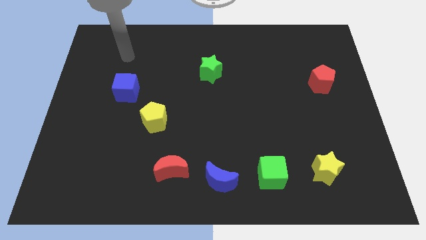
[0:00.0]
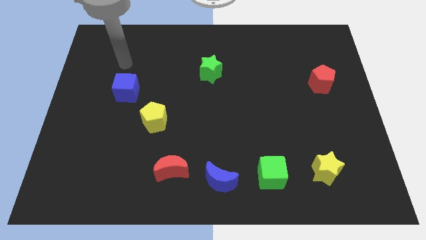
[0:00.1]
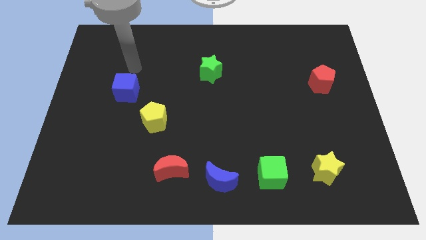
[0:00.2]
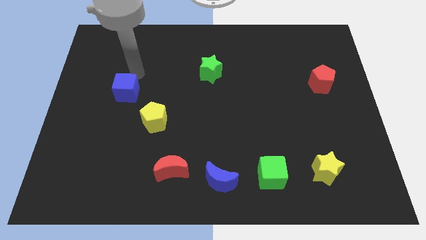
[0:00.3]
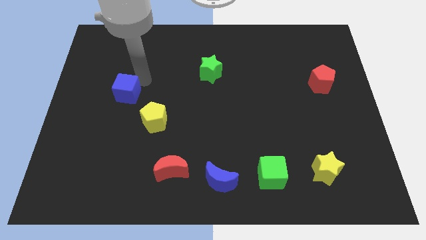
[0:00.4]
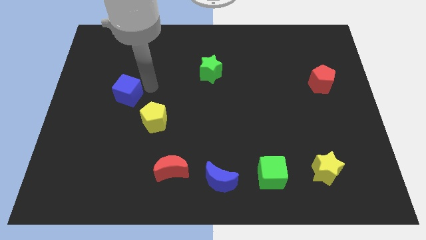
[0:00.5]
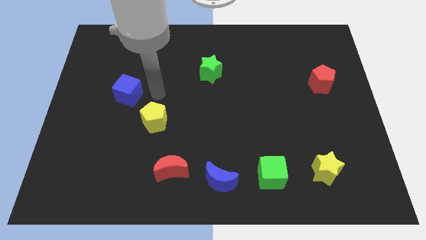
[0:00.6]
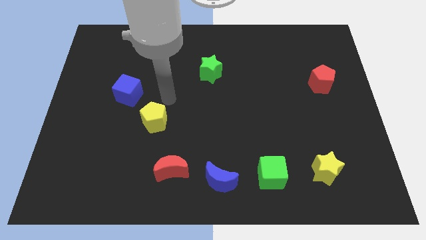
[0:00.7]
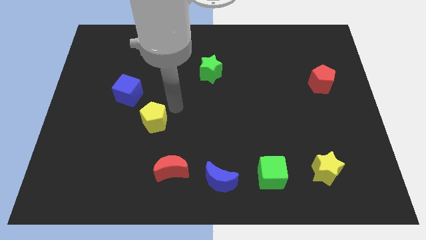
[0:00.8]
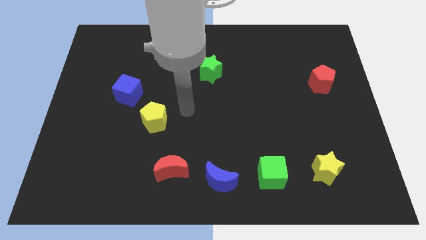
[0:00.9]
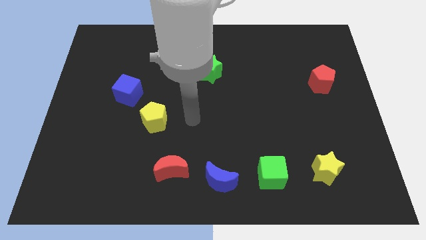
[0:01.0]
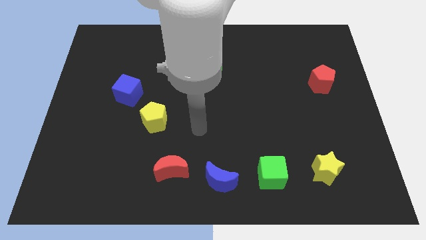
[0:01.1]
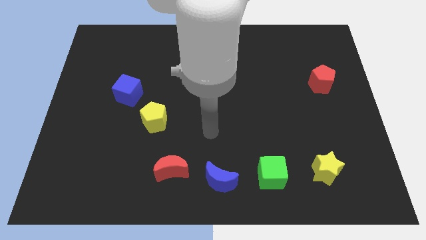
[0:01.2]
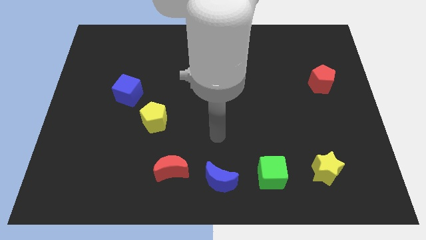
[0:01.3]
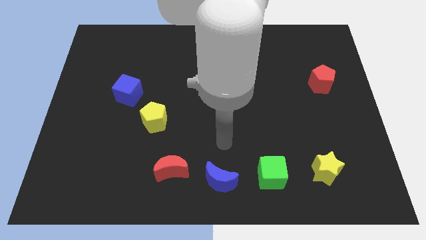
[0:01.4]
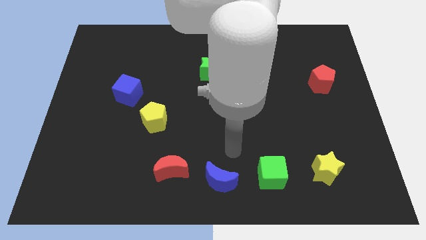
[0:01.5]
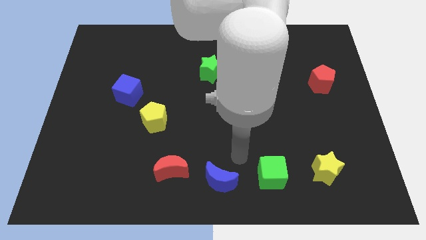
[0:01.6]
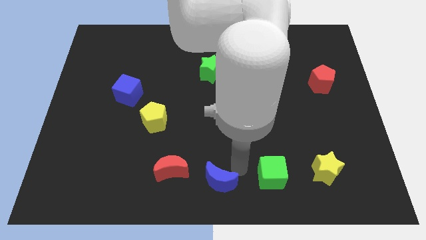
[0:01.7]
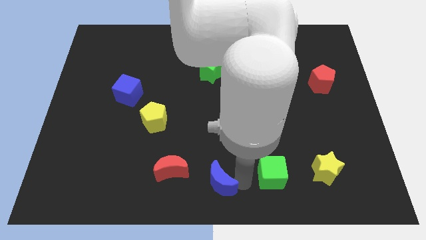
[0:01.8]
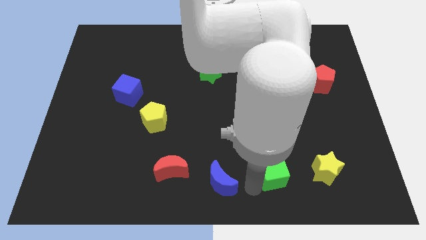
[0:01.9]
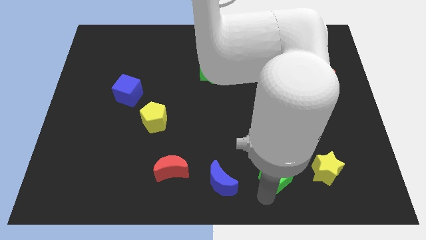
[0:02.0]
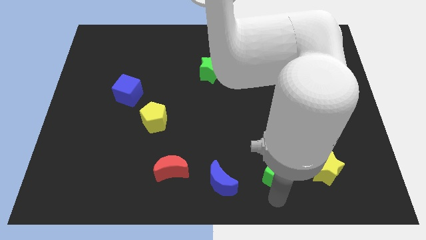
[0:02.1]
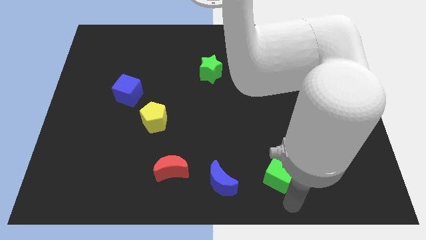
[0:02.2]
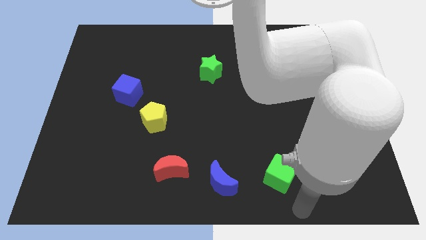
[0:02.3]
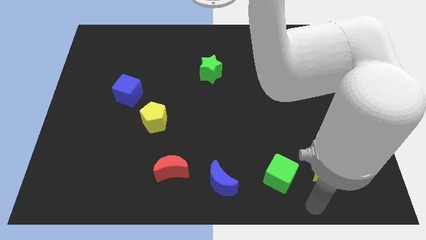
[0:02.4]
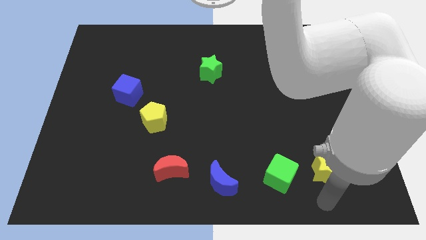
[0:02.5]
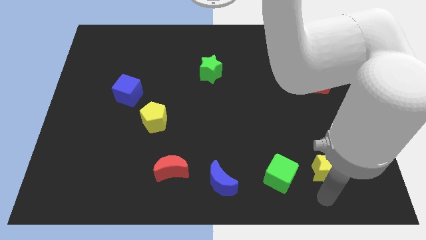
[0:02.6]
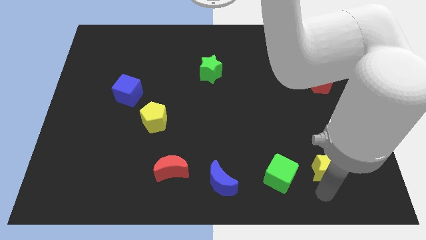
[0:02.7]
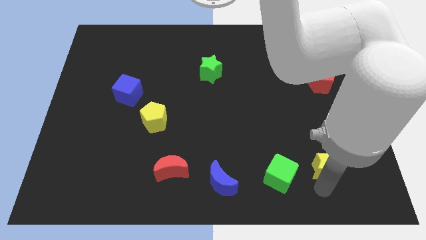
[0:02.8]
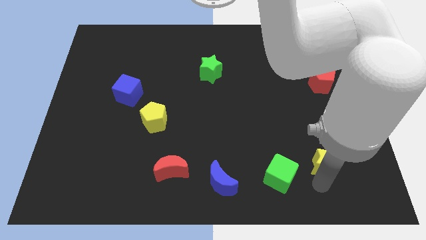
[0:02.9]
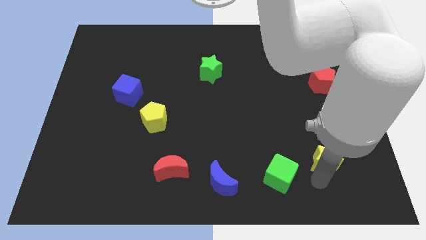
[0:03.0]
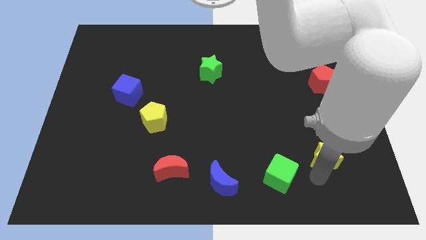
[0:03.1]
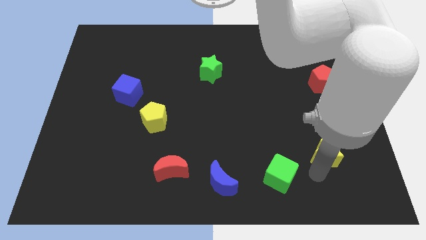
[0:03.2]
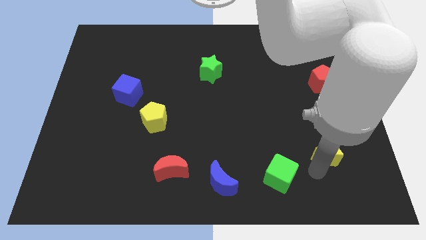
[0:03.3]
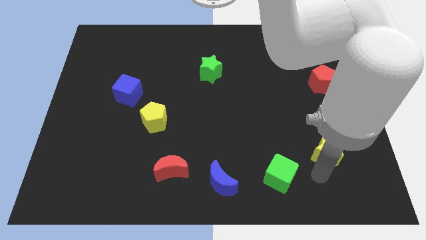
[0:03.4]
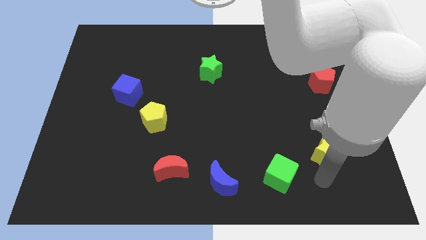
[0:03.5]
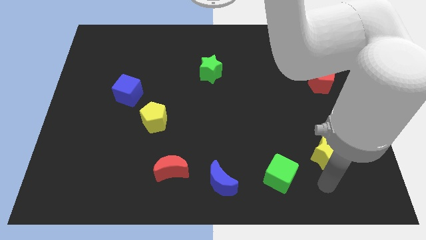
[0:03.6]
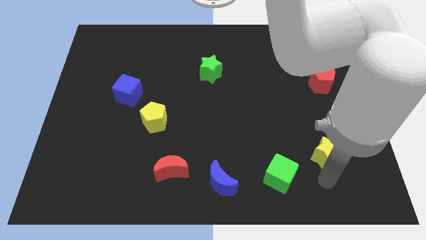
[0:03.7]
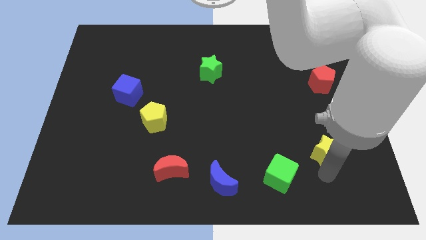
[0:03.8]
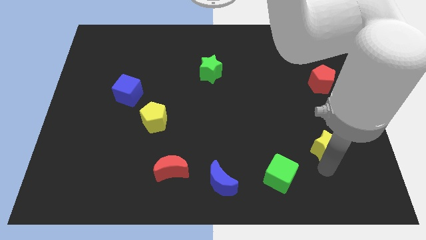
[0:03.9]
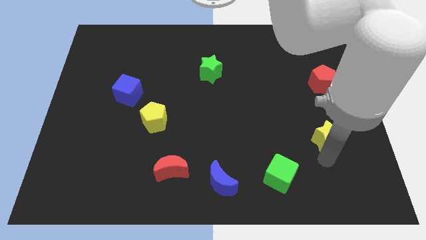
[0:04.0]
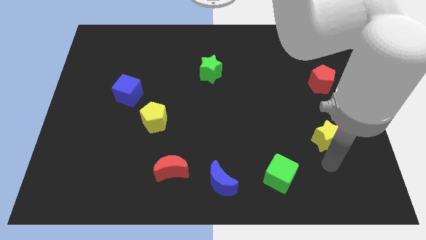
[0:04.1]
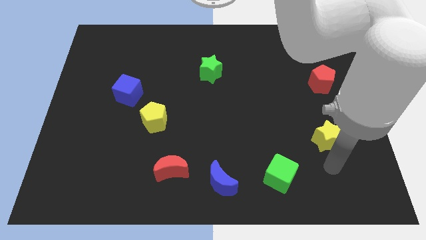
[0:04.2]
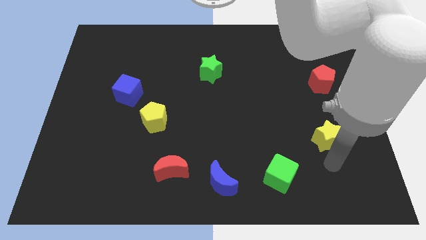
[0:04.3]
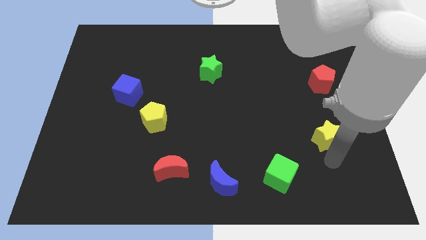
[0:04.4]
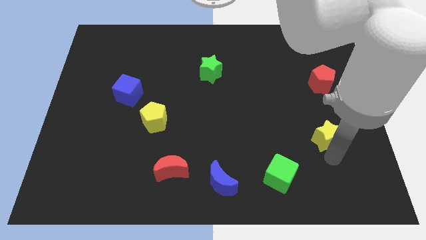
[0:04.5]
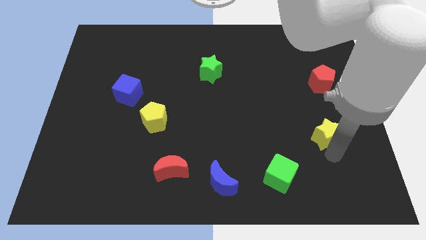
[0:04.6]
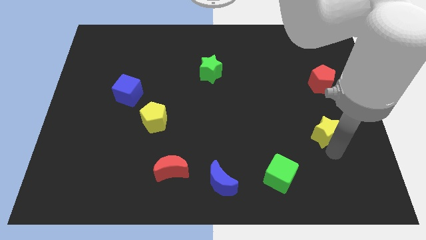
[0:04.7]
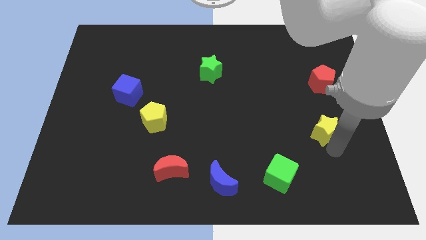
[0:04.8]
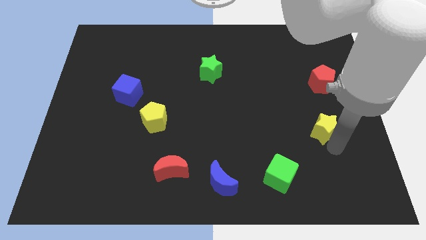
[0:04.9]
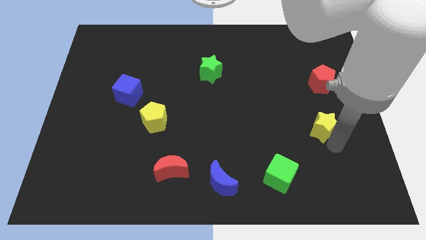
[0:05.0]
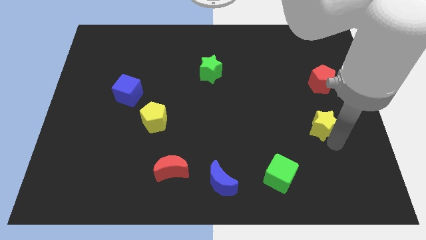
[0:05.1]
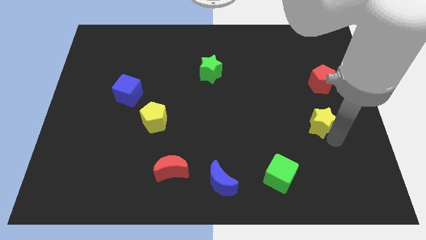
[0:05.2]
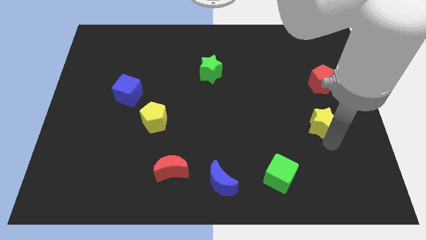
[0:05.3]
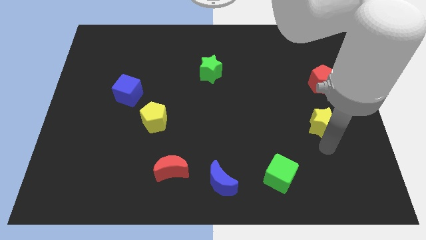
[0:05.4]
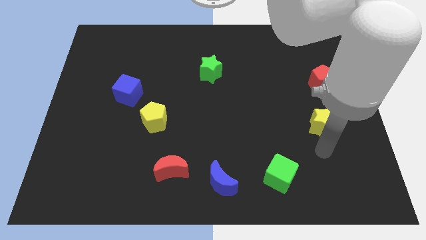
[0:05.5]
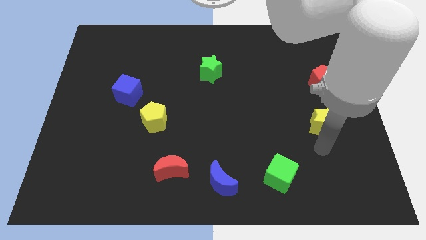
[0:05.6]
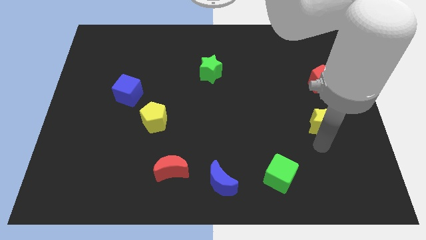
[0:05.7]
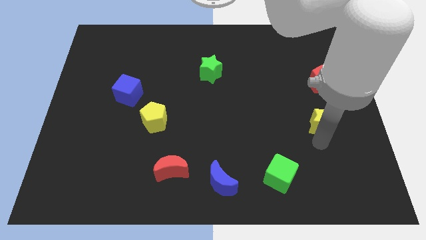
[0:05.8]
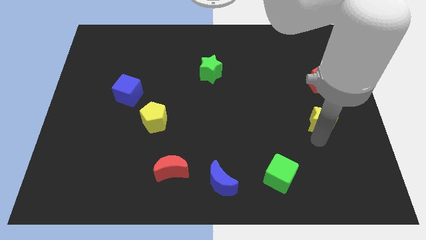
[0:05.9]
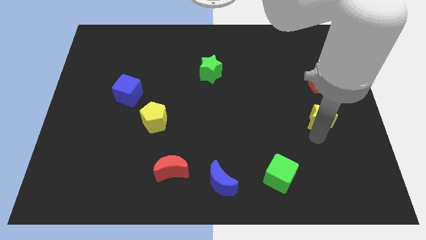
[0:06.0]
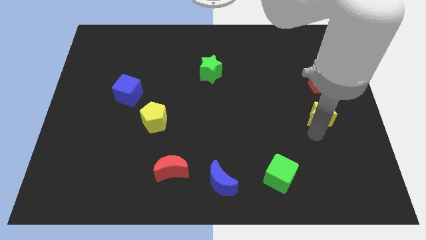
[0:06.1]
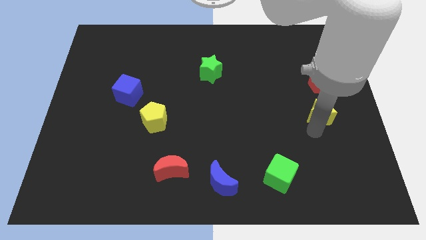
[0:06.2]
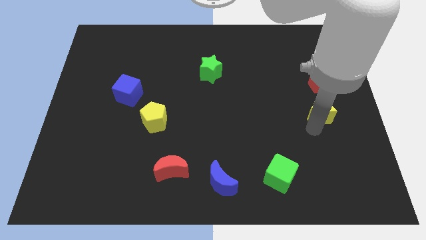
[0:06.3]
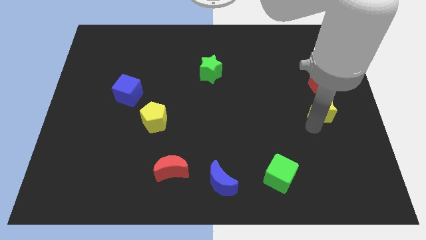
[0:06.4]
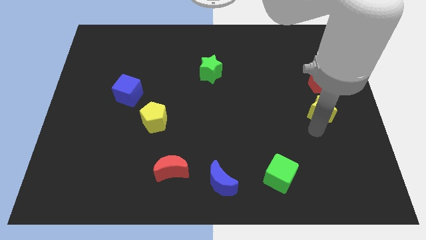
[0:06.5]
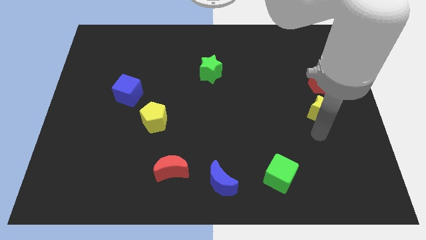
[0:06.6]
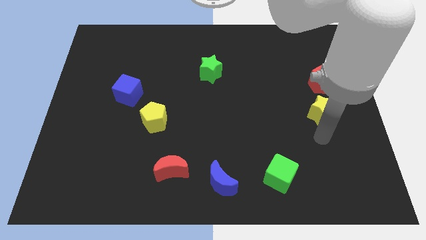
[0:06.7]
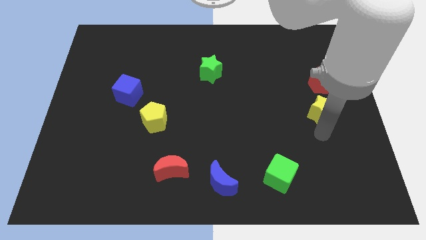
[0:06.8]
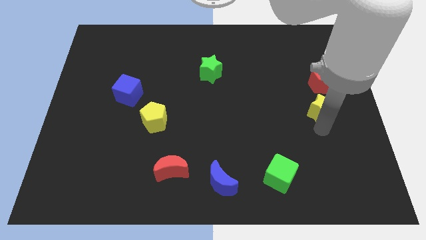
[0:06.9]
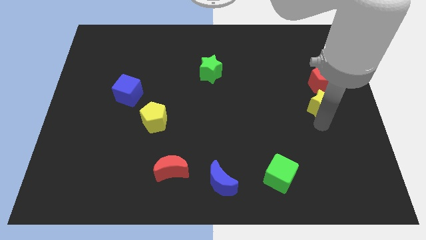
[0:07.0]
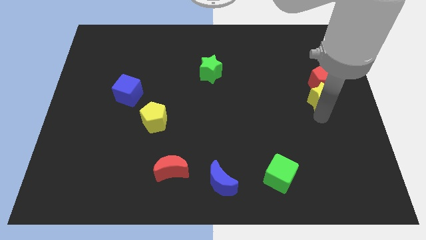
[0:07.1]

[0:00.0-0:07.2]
push the yellow star next to the red pentagon
